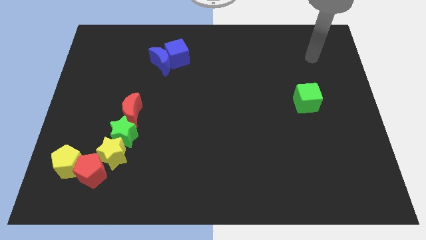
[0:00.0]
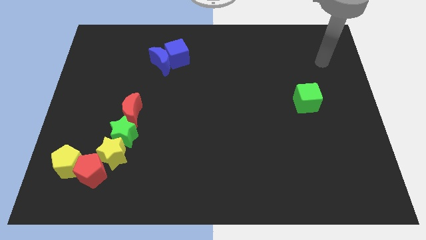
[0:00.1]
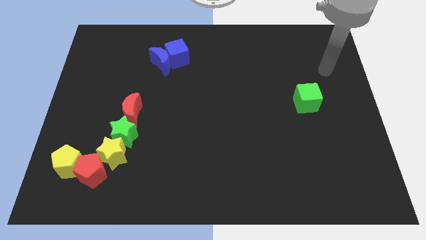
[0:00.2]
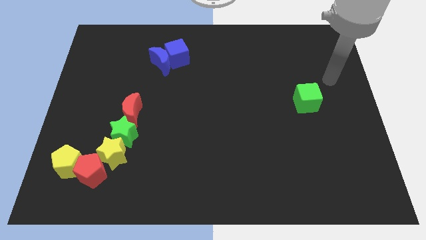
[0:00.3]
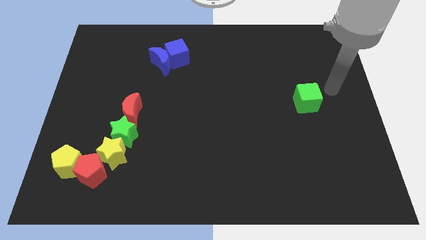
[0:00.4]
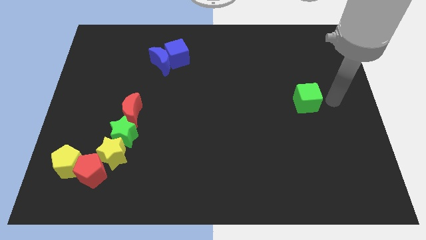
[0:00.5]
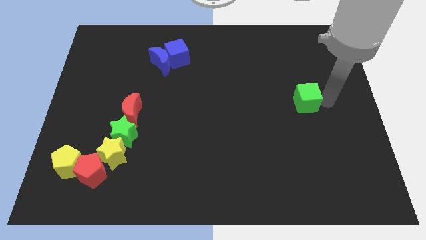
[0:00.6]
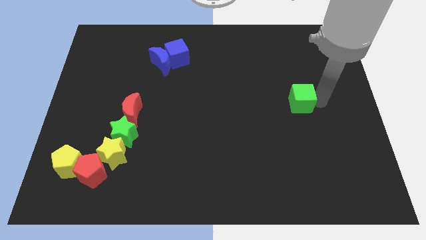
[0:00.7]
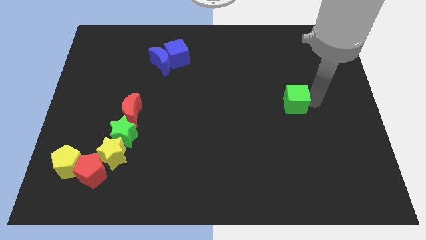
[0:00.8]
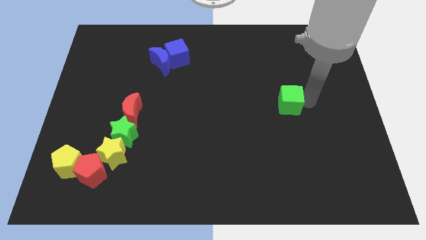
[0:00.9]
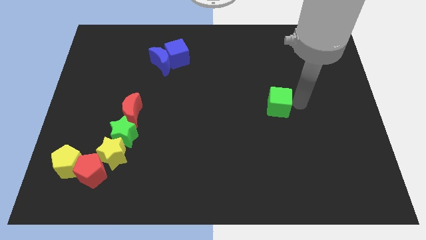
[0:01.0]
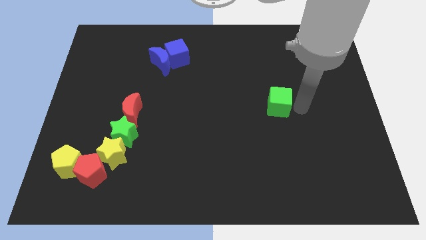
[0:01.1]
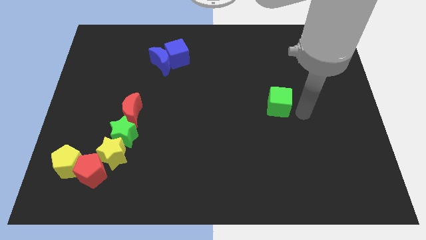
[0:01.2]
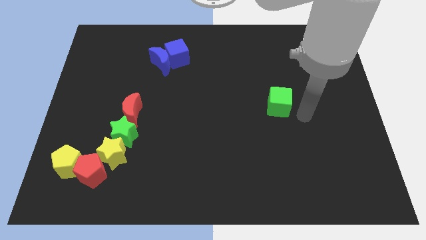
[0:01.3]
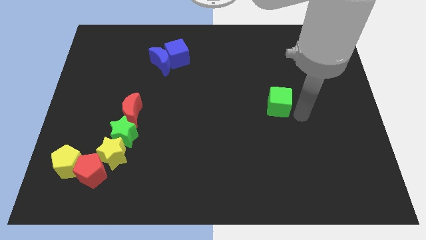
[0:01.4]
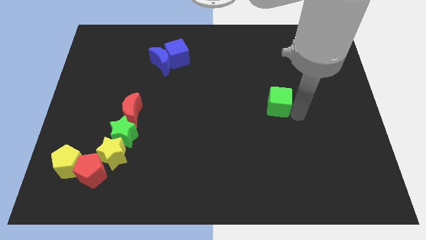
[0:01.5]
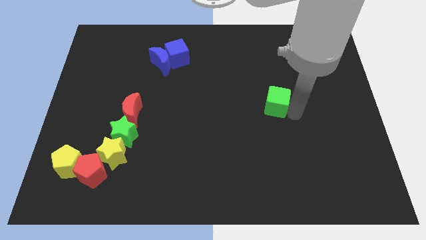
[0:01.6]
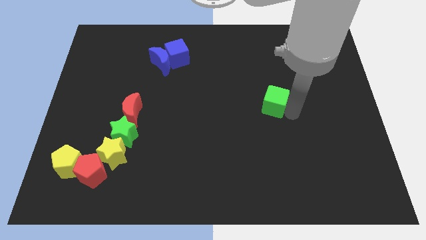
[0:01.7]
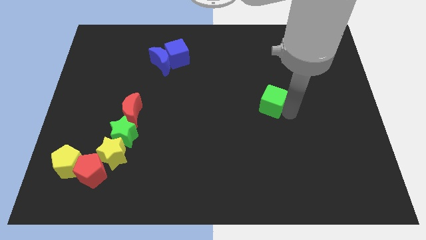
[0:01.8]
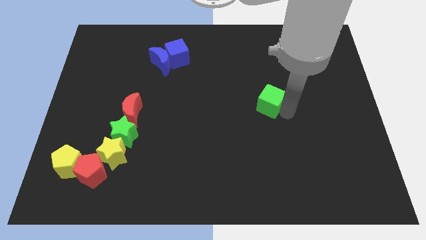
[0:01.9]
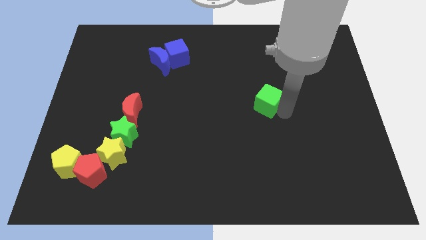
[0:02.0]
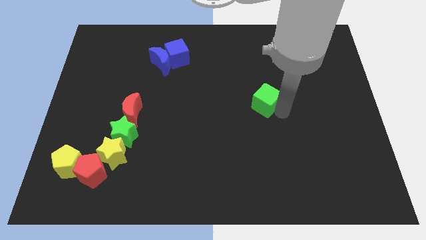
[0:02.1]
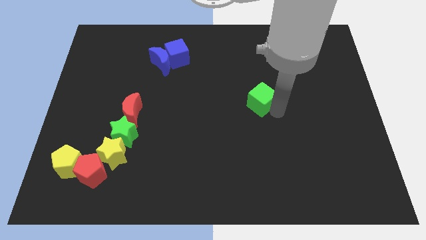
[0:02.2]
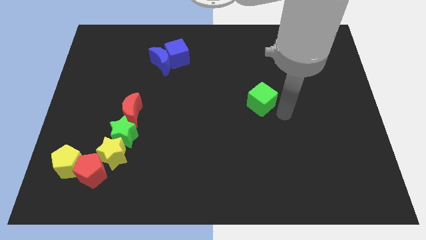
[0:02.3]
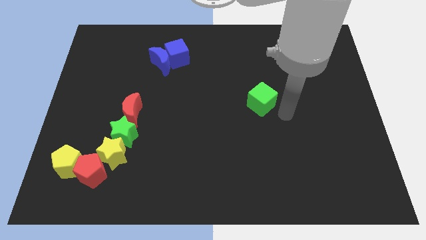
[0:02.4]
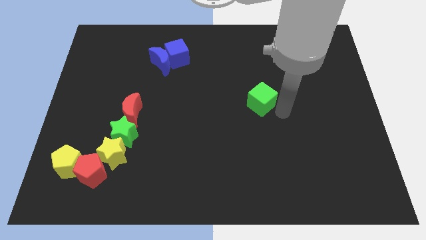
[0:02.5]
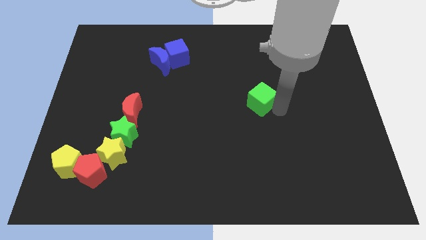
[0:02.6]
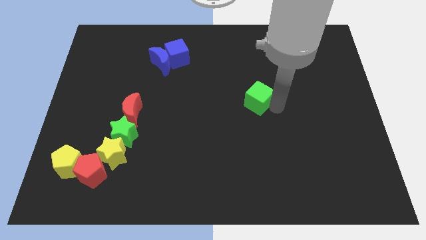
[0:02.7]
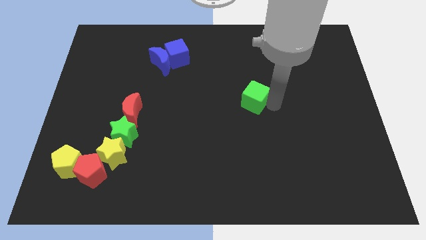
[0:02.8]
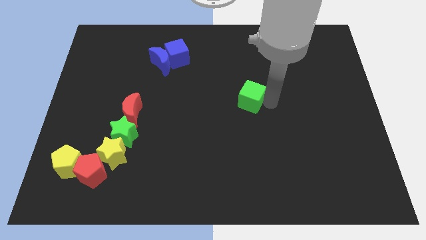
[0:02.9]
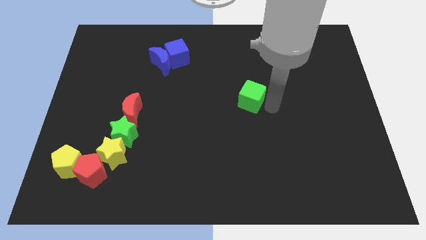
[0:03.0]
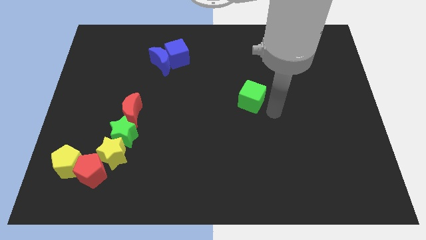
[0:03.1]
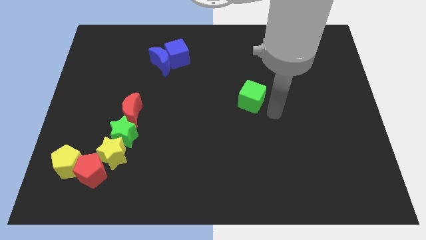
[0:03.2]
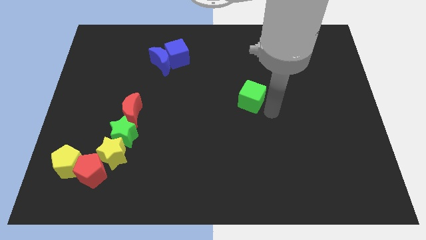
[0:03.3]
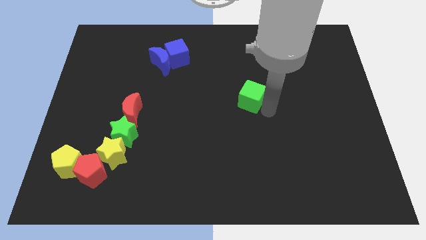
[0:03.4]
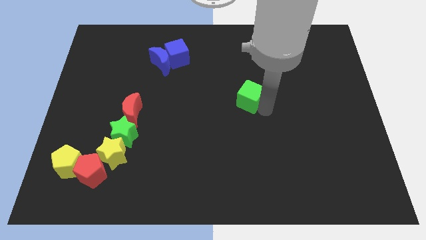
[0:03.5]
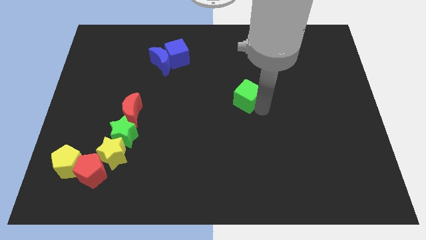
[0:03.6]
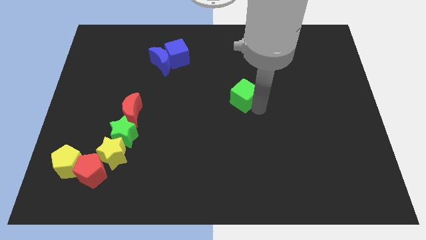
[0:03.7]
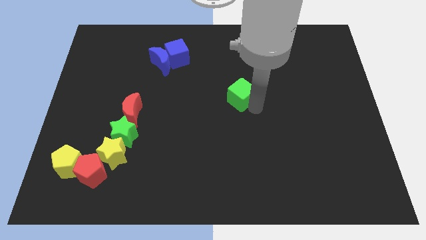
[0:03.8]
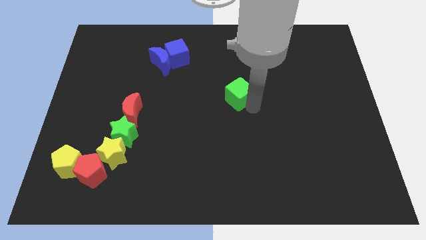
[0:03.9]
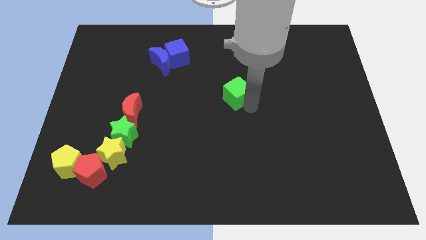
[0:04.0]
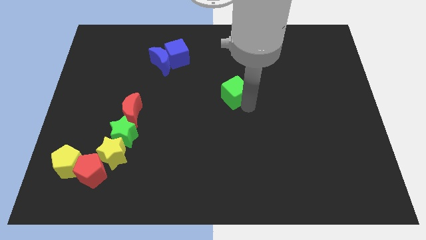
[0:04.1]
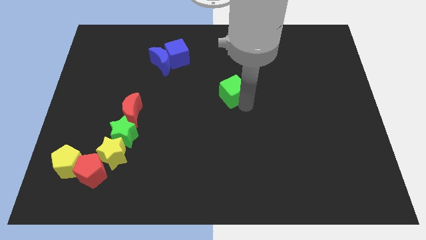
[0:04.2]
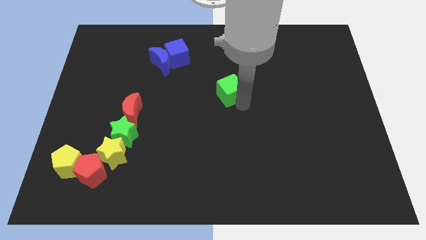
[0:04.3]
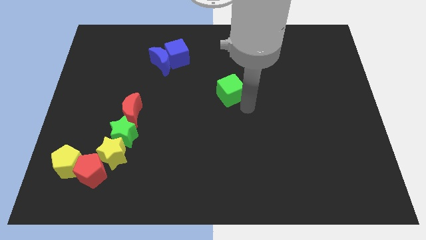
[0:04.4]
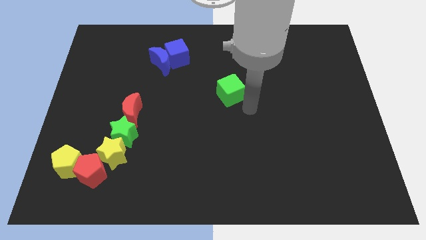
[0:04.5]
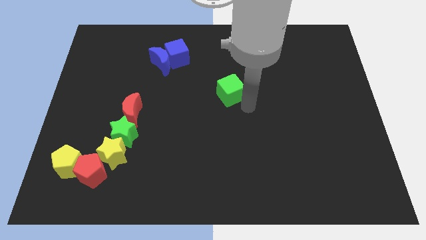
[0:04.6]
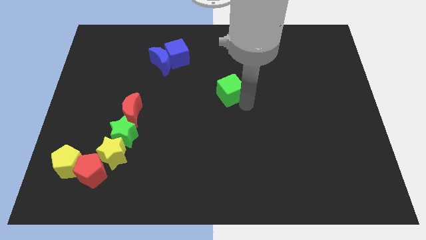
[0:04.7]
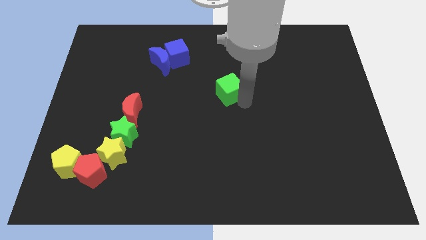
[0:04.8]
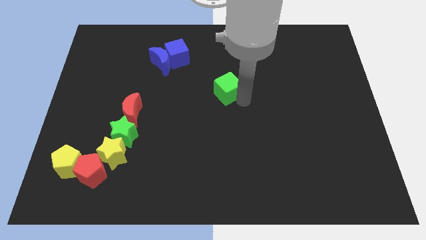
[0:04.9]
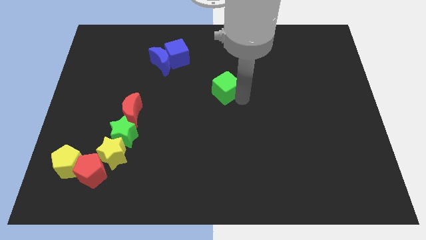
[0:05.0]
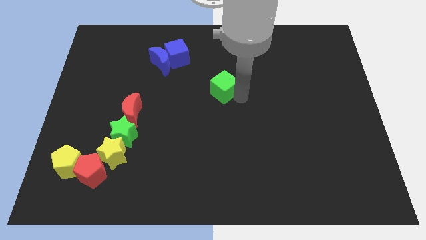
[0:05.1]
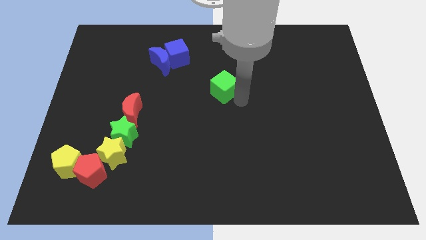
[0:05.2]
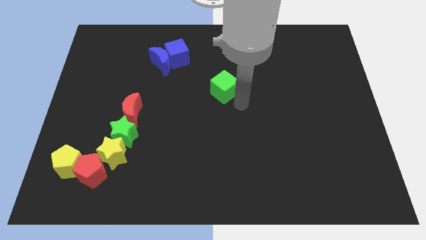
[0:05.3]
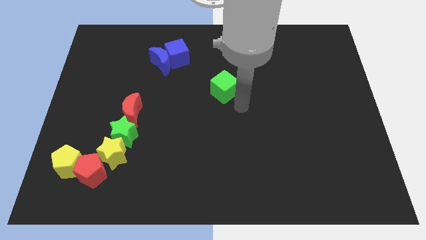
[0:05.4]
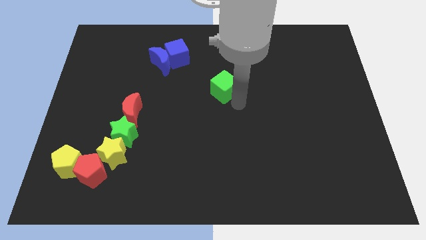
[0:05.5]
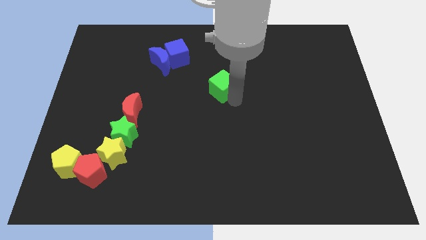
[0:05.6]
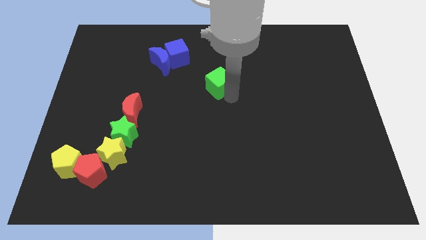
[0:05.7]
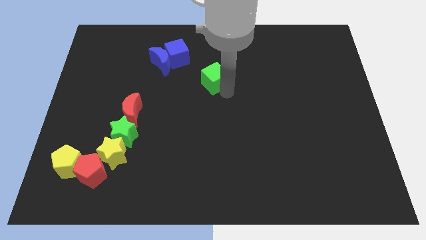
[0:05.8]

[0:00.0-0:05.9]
move the green cube to the bottom right of the blue cube

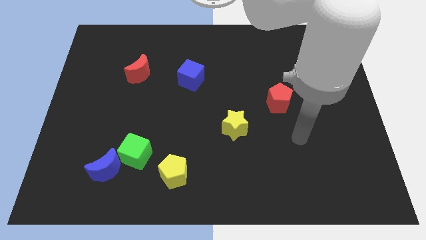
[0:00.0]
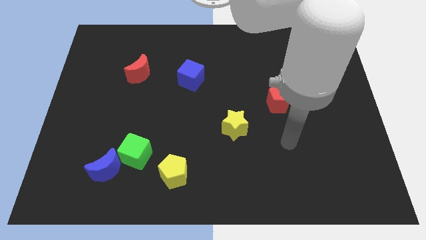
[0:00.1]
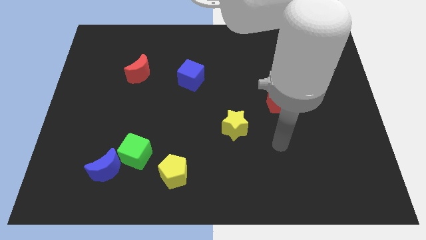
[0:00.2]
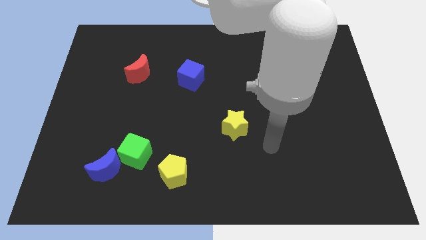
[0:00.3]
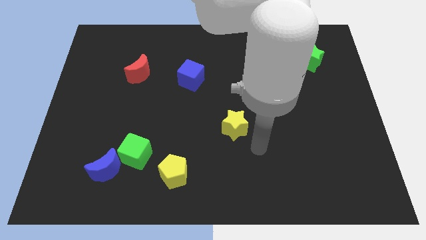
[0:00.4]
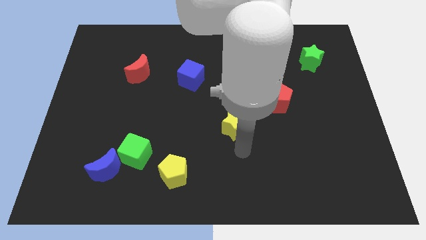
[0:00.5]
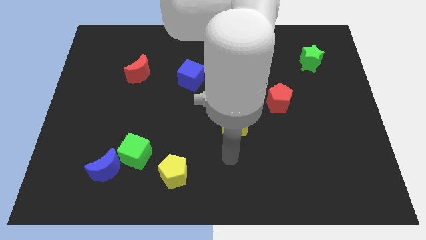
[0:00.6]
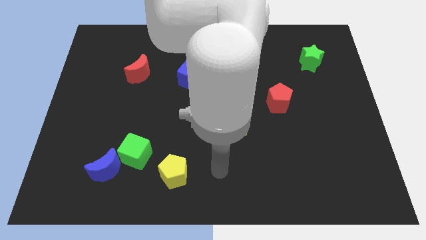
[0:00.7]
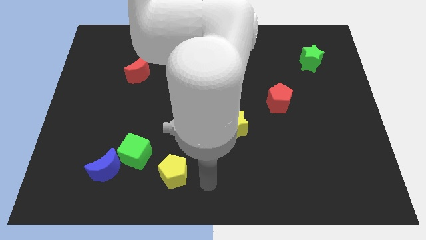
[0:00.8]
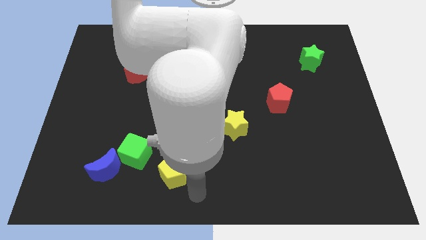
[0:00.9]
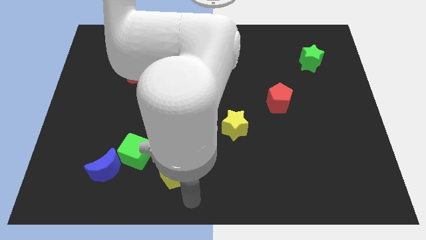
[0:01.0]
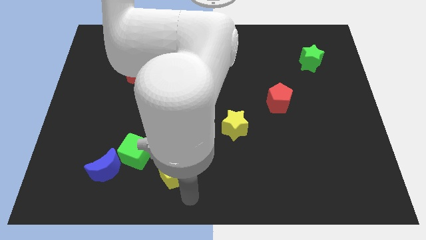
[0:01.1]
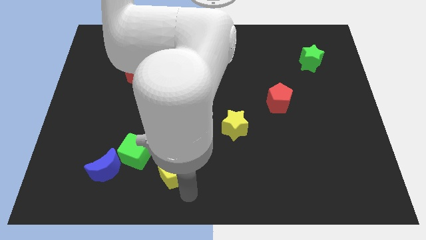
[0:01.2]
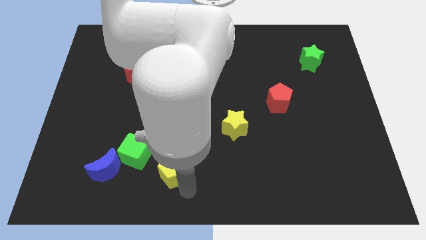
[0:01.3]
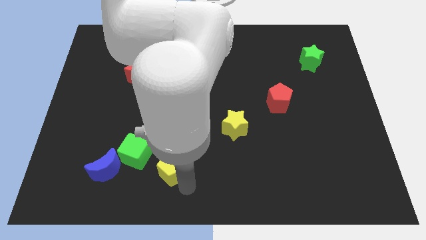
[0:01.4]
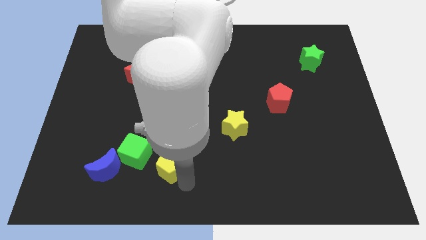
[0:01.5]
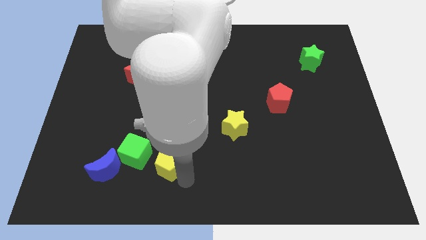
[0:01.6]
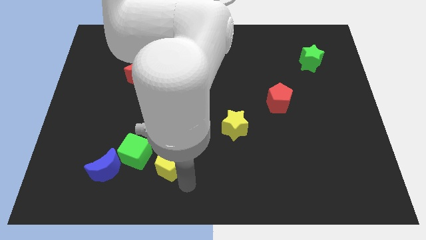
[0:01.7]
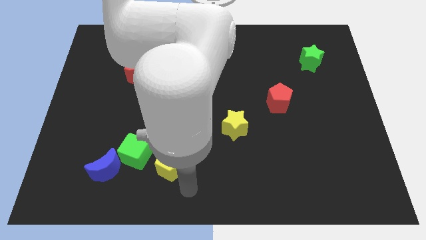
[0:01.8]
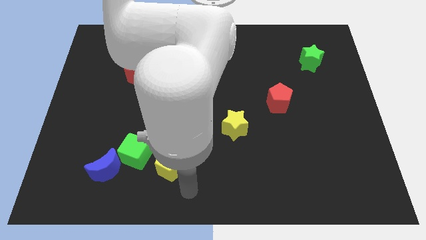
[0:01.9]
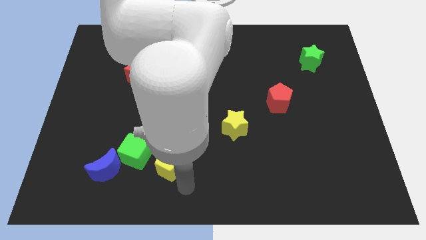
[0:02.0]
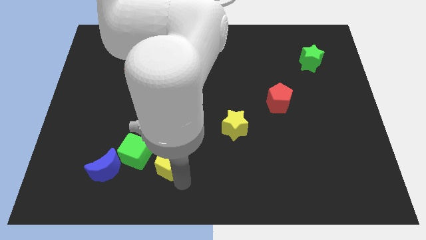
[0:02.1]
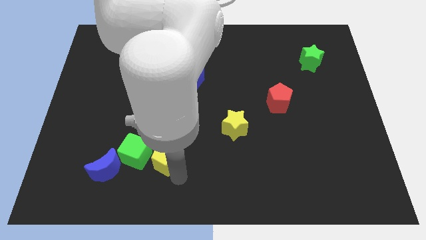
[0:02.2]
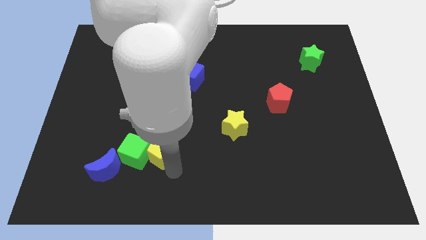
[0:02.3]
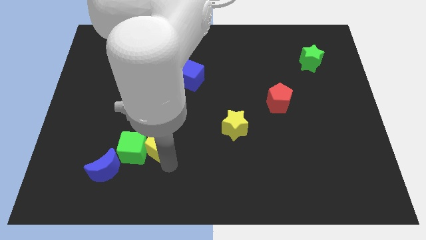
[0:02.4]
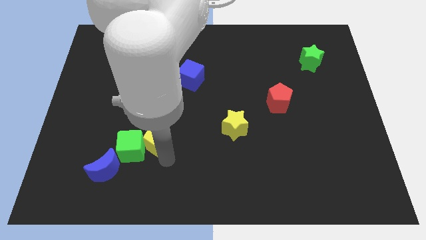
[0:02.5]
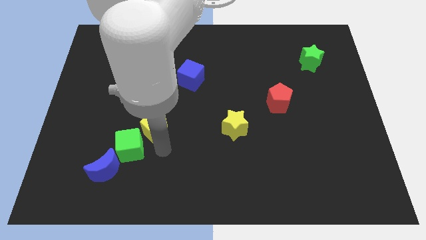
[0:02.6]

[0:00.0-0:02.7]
slide the yellow pentagon above the green cube
